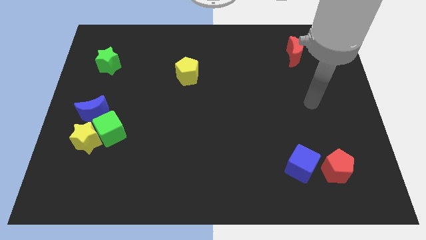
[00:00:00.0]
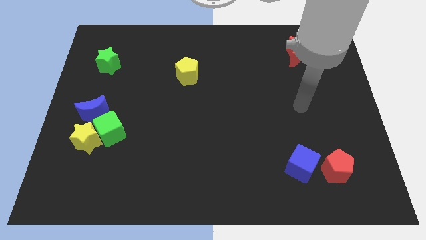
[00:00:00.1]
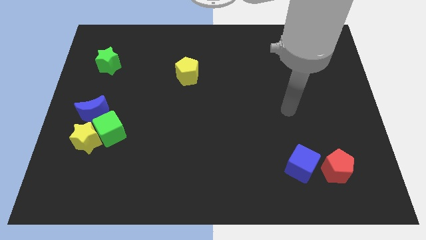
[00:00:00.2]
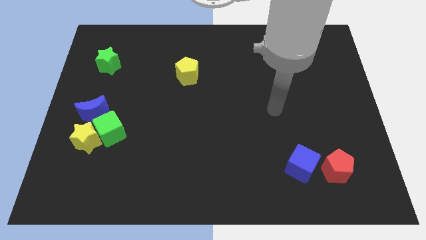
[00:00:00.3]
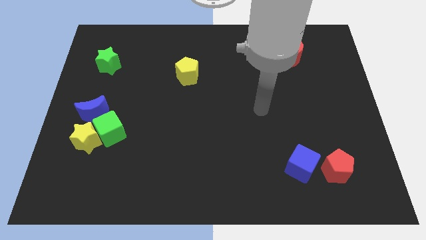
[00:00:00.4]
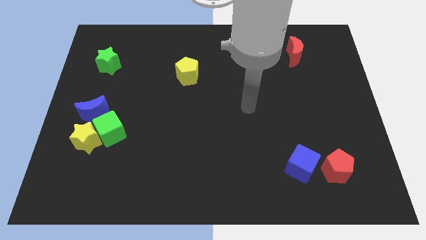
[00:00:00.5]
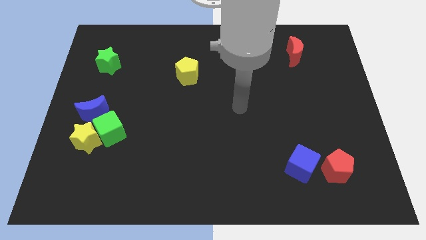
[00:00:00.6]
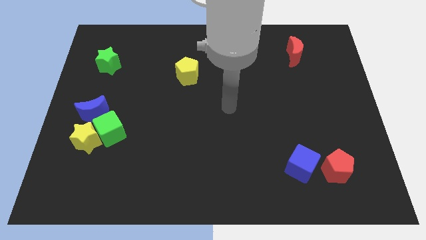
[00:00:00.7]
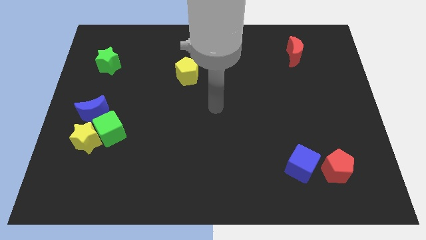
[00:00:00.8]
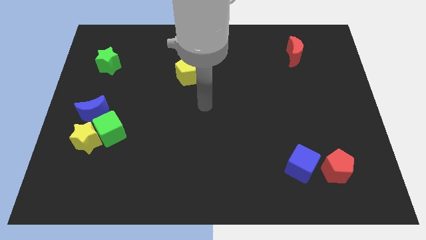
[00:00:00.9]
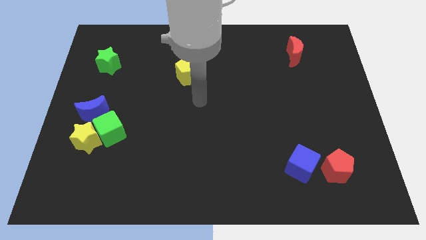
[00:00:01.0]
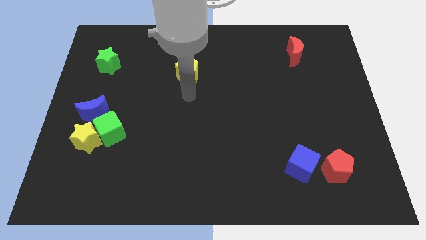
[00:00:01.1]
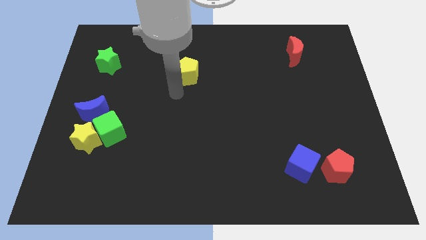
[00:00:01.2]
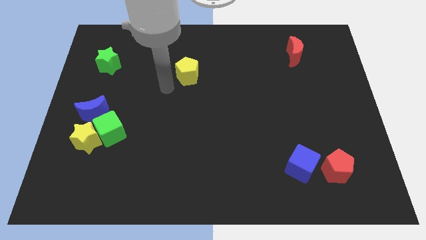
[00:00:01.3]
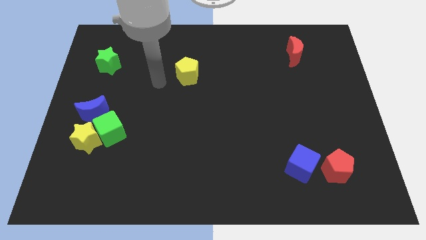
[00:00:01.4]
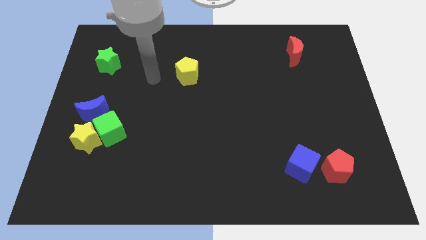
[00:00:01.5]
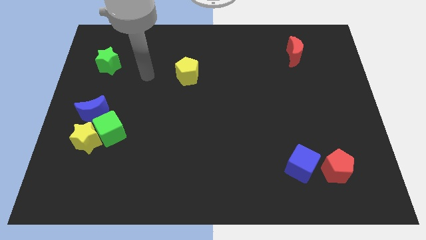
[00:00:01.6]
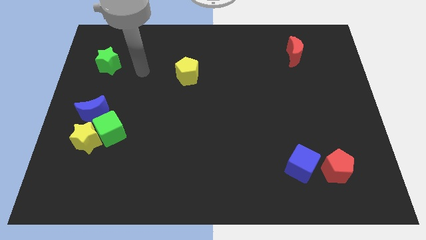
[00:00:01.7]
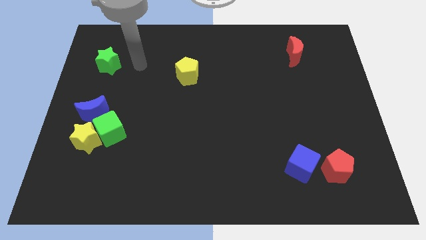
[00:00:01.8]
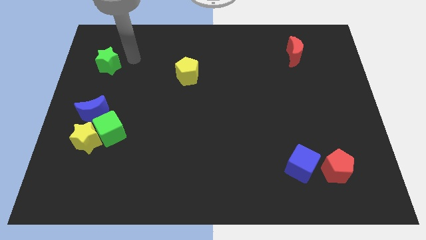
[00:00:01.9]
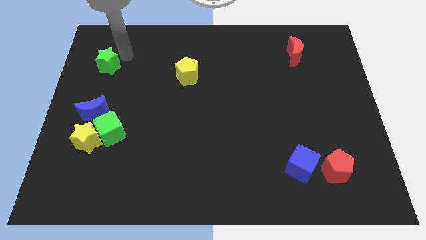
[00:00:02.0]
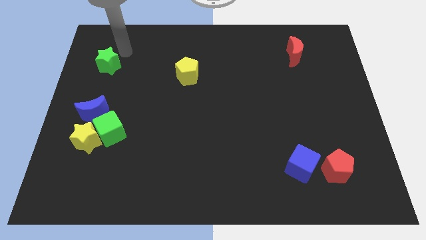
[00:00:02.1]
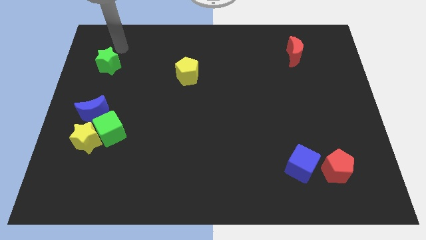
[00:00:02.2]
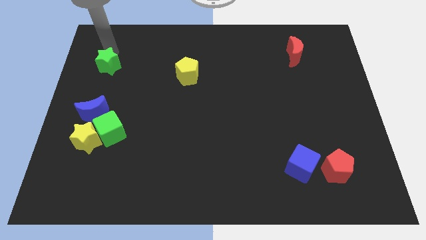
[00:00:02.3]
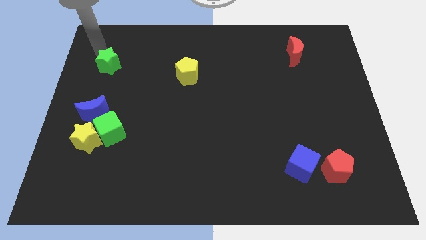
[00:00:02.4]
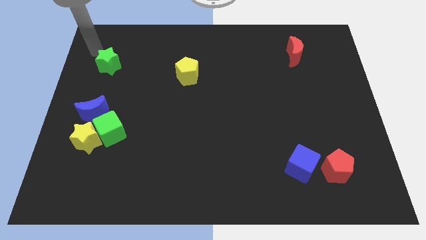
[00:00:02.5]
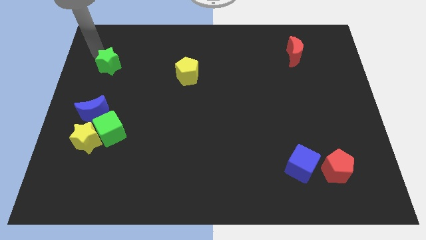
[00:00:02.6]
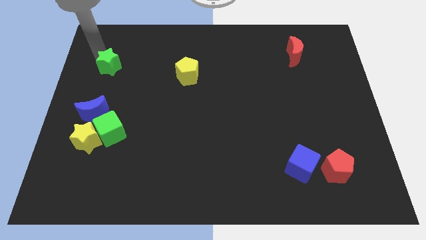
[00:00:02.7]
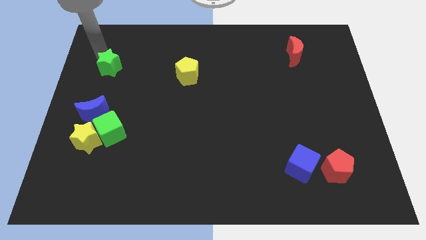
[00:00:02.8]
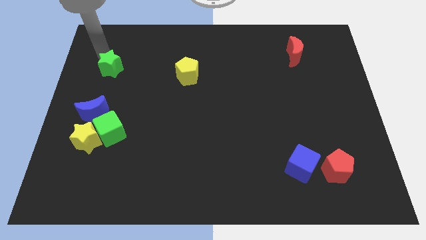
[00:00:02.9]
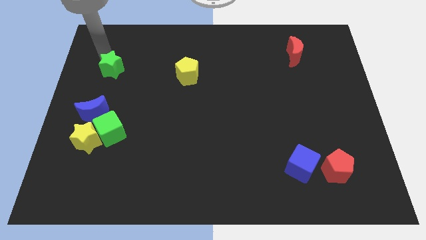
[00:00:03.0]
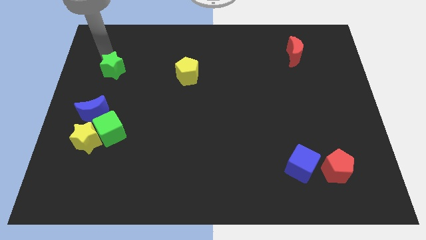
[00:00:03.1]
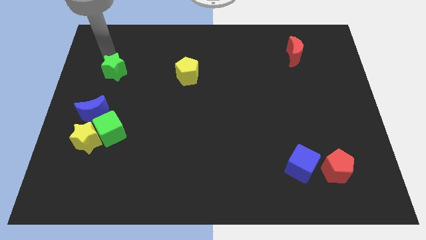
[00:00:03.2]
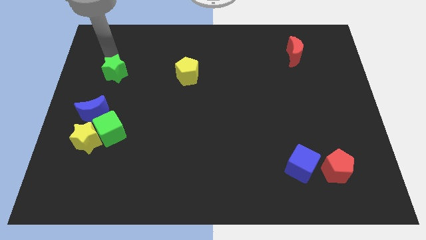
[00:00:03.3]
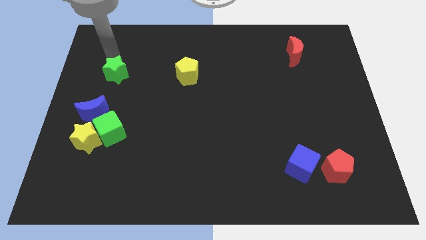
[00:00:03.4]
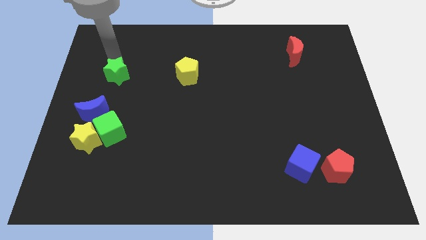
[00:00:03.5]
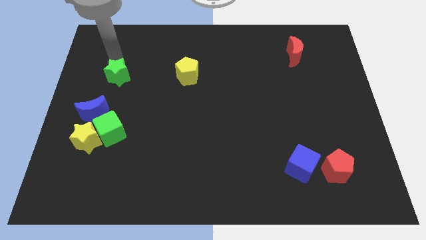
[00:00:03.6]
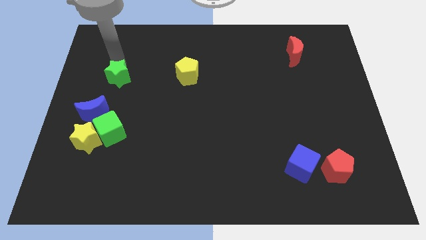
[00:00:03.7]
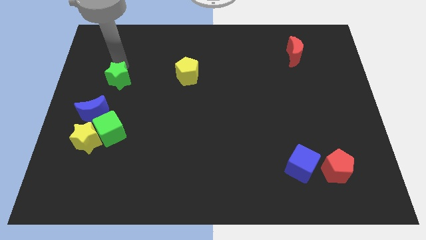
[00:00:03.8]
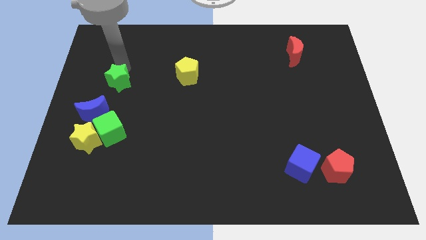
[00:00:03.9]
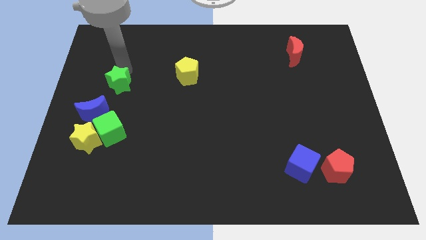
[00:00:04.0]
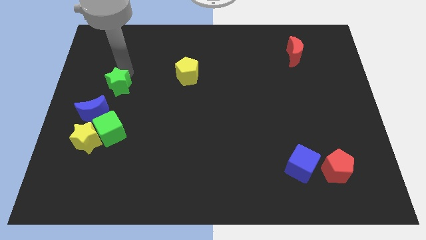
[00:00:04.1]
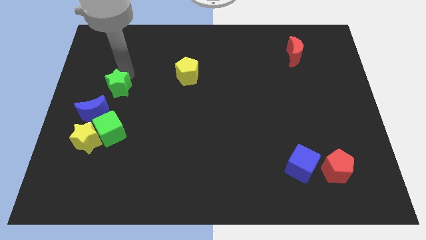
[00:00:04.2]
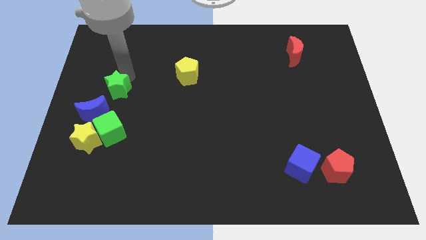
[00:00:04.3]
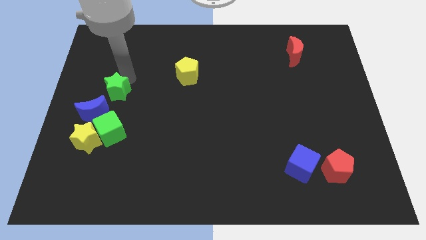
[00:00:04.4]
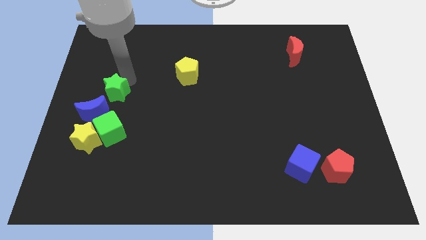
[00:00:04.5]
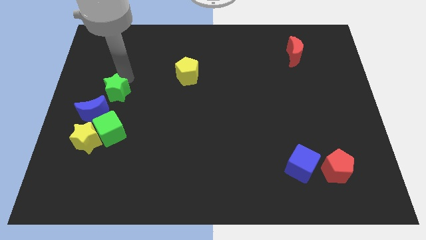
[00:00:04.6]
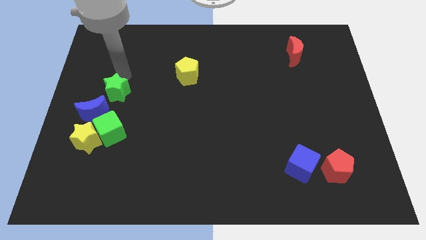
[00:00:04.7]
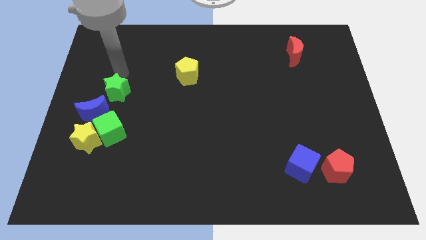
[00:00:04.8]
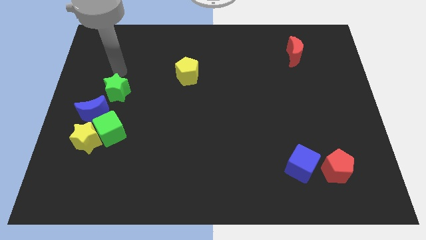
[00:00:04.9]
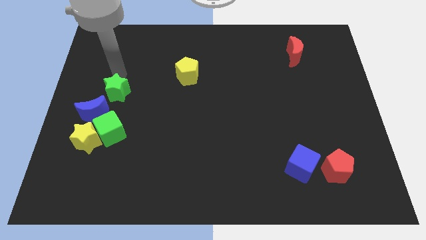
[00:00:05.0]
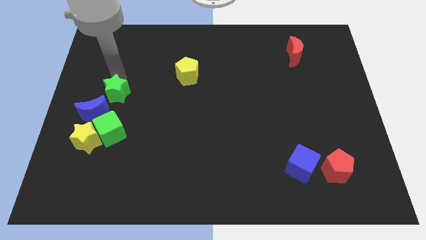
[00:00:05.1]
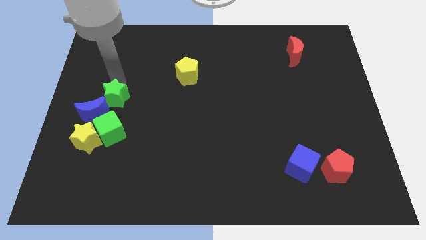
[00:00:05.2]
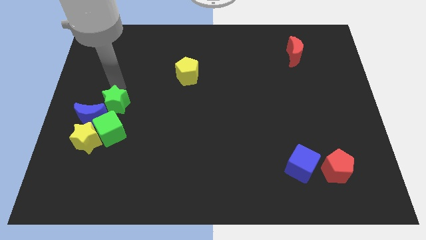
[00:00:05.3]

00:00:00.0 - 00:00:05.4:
put the green star to the top right side of the yellow star

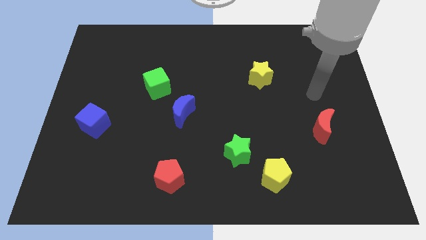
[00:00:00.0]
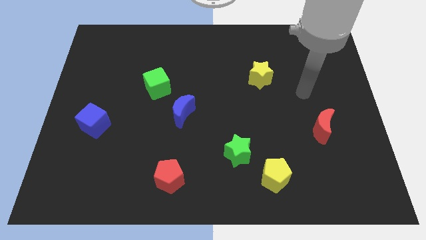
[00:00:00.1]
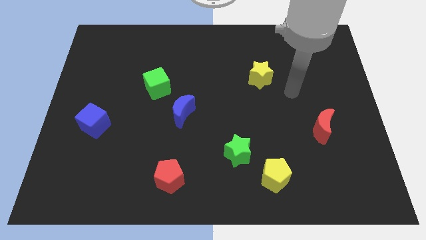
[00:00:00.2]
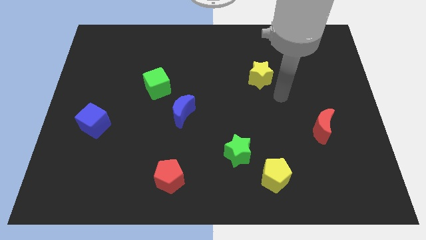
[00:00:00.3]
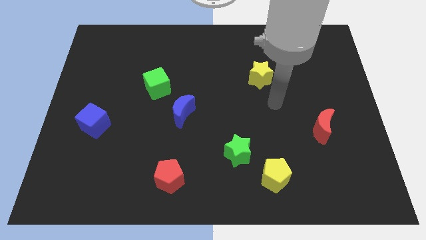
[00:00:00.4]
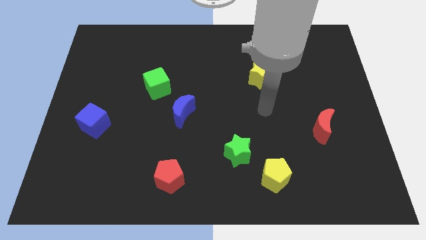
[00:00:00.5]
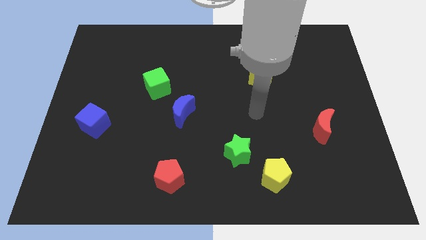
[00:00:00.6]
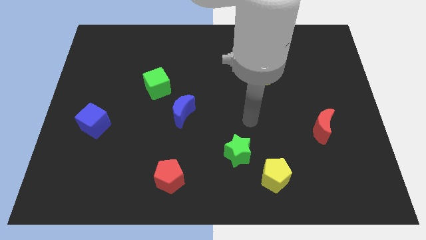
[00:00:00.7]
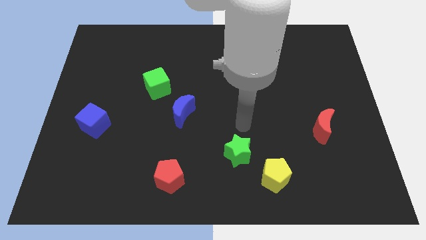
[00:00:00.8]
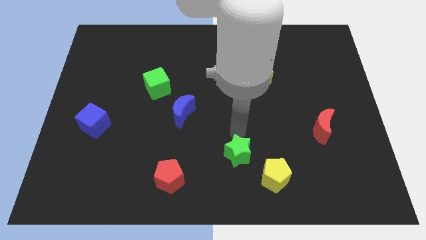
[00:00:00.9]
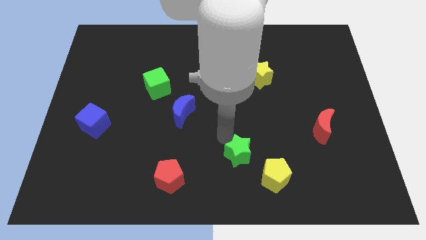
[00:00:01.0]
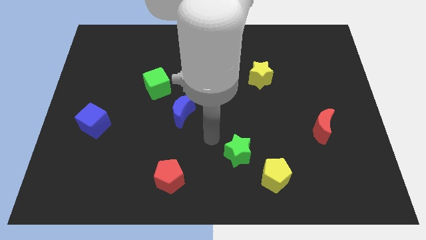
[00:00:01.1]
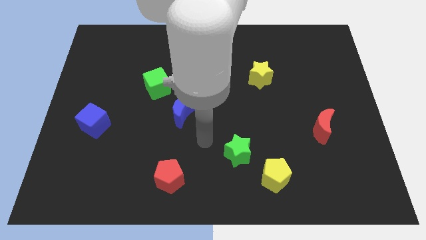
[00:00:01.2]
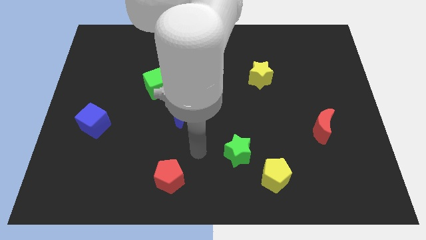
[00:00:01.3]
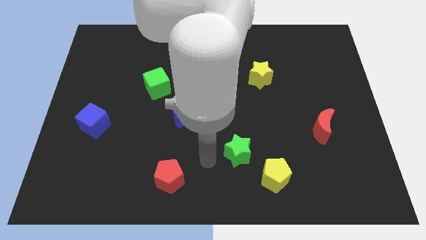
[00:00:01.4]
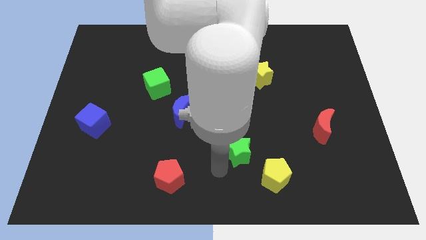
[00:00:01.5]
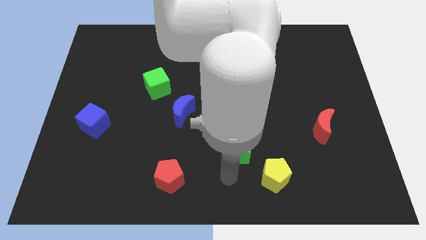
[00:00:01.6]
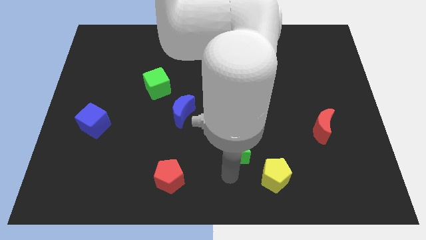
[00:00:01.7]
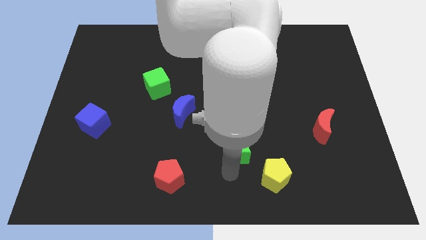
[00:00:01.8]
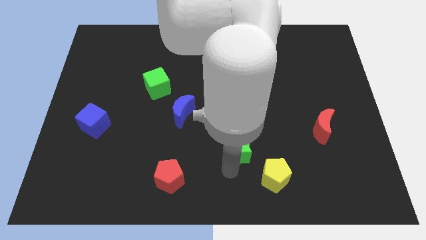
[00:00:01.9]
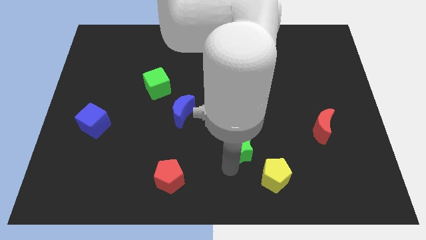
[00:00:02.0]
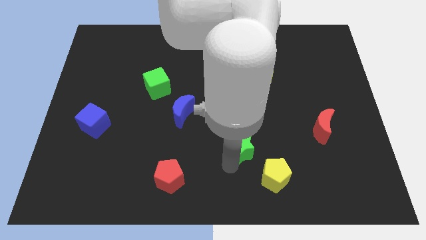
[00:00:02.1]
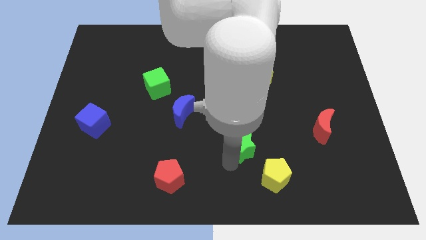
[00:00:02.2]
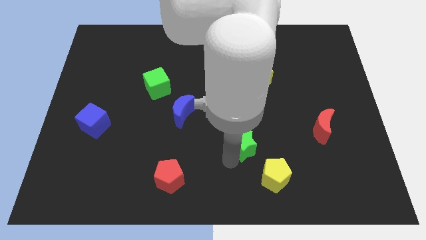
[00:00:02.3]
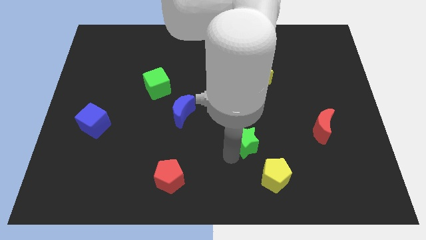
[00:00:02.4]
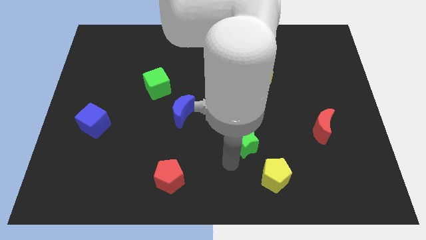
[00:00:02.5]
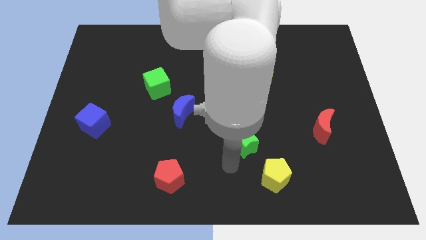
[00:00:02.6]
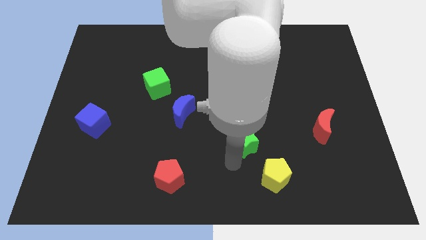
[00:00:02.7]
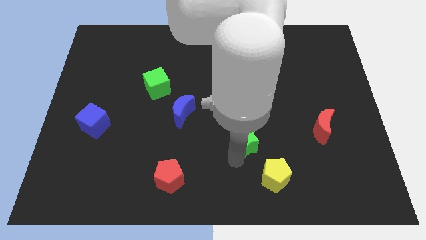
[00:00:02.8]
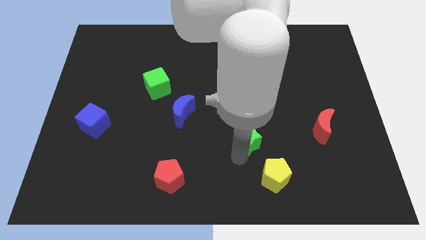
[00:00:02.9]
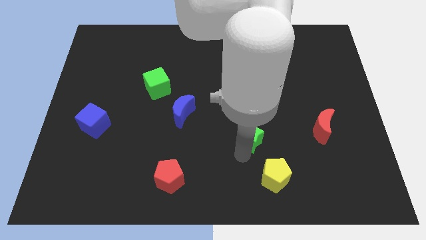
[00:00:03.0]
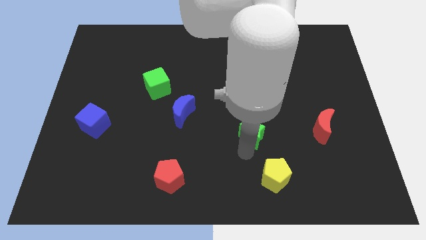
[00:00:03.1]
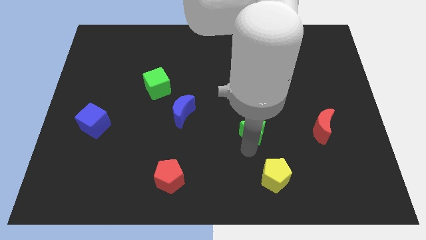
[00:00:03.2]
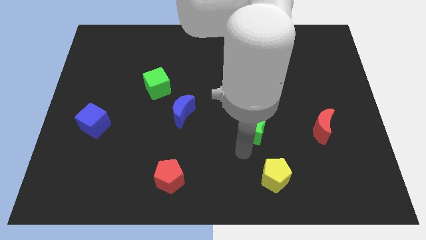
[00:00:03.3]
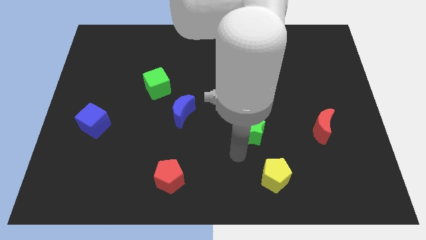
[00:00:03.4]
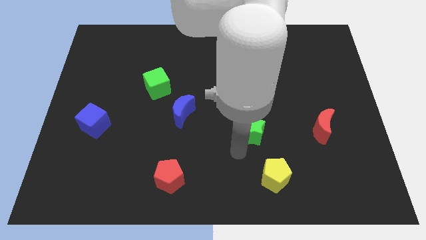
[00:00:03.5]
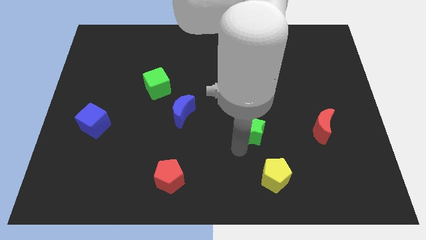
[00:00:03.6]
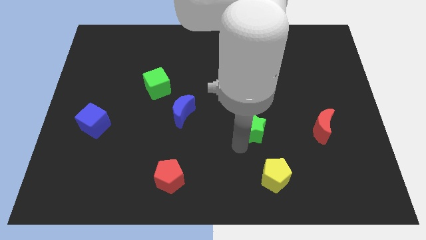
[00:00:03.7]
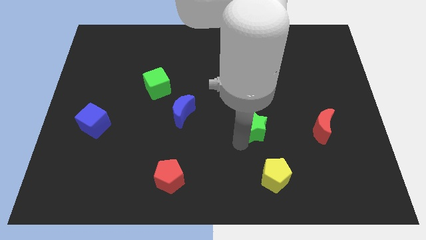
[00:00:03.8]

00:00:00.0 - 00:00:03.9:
move the green star below the yellow star
